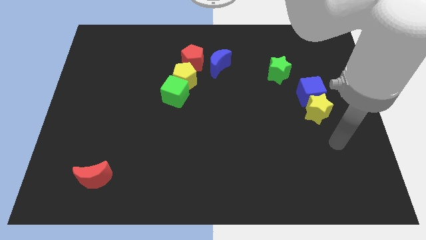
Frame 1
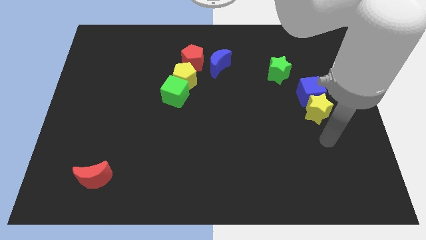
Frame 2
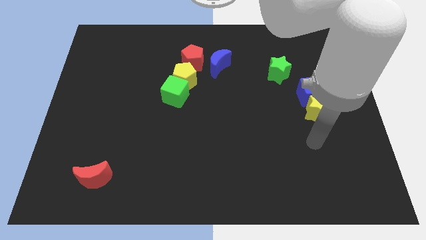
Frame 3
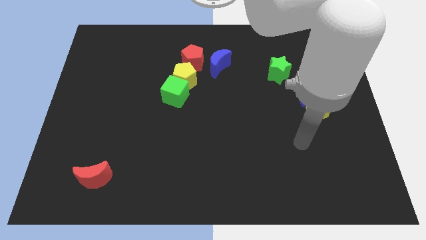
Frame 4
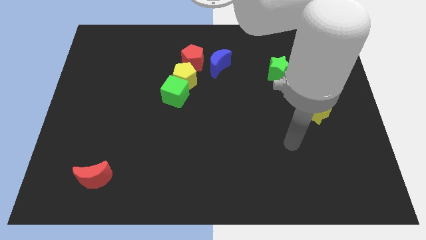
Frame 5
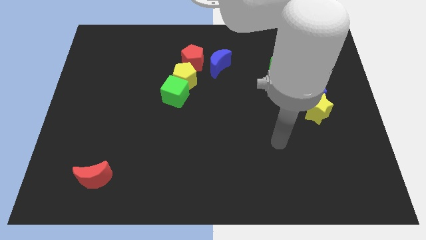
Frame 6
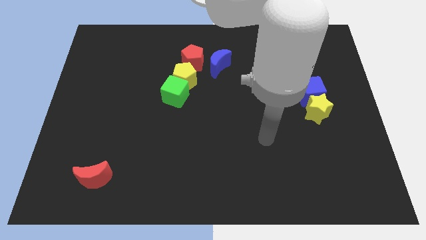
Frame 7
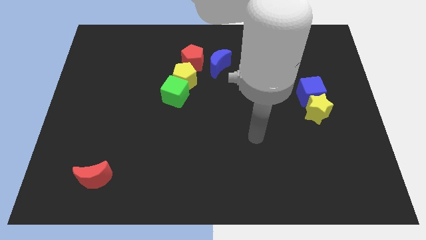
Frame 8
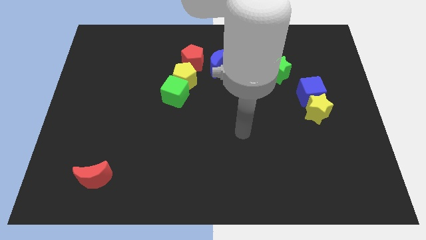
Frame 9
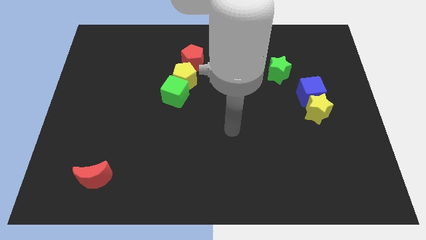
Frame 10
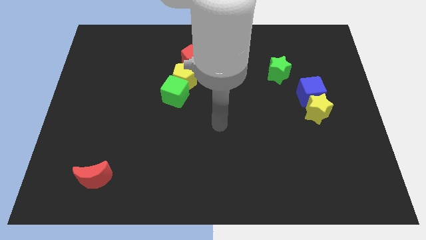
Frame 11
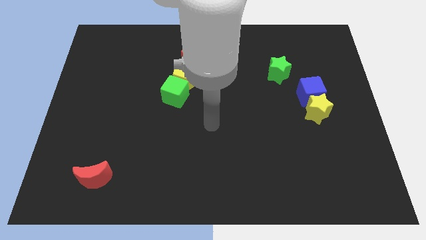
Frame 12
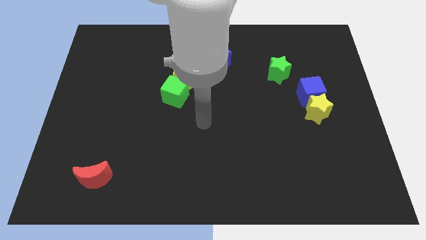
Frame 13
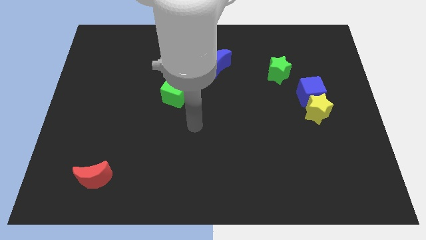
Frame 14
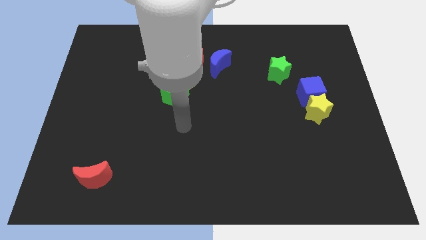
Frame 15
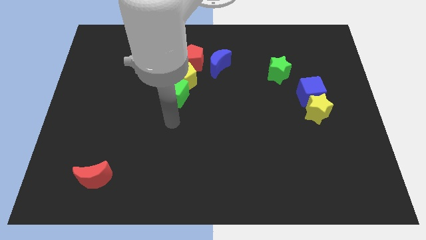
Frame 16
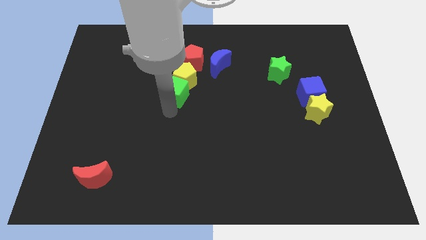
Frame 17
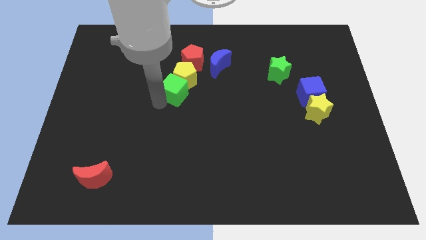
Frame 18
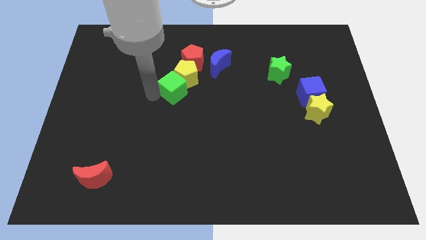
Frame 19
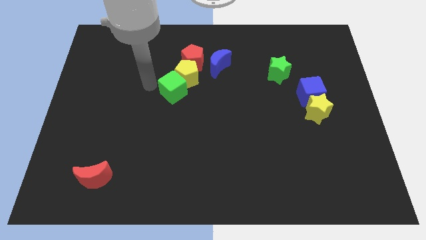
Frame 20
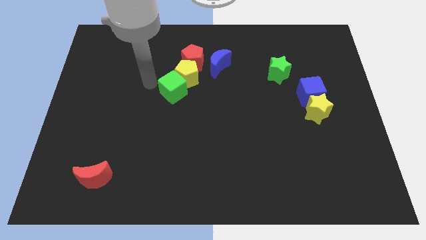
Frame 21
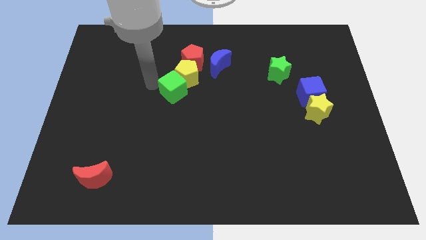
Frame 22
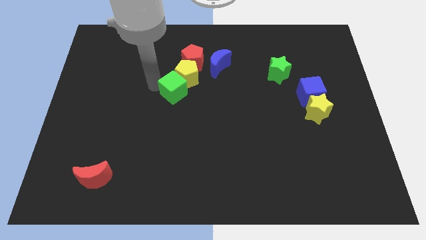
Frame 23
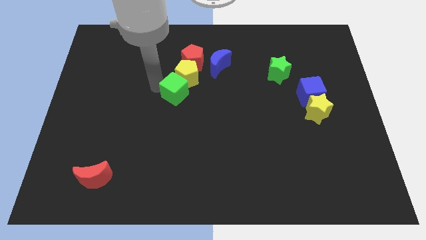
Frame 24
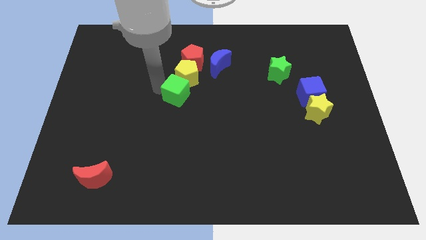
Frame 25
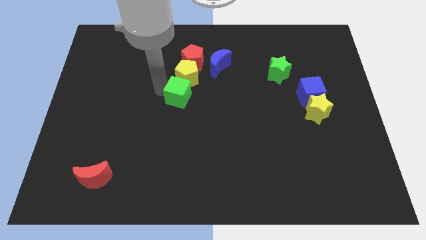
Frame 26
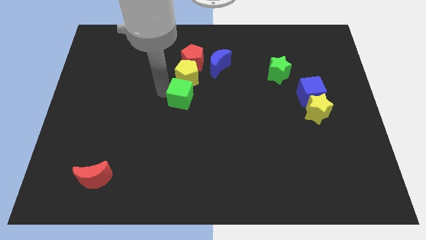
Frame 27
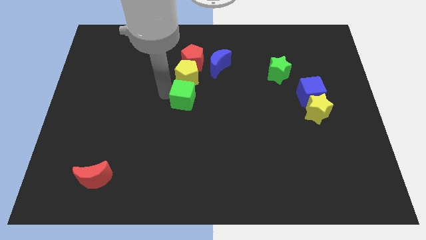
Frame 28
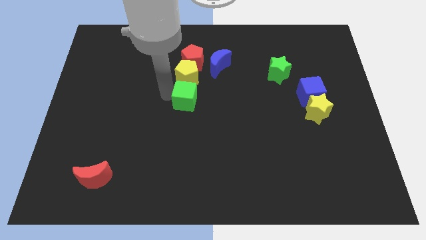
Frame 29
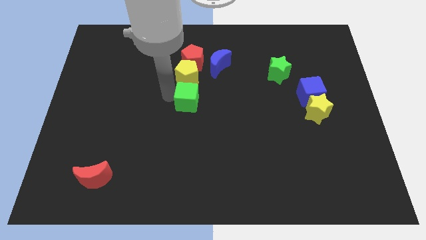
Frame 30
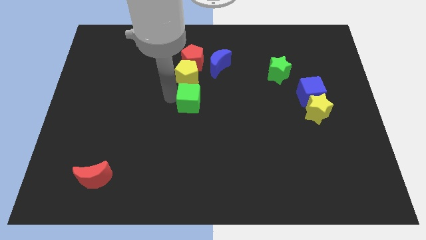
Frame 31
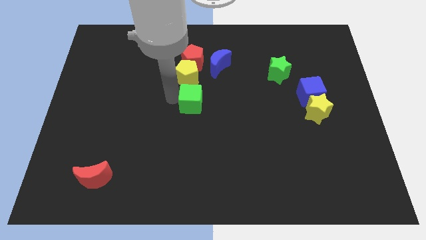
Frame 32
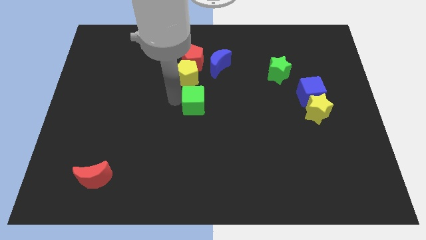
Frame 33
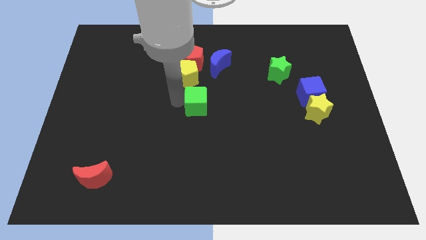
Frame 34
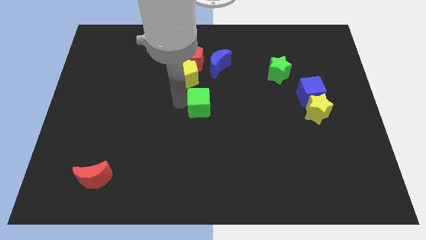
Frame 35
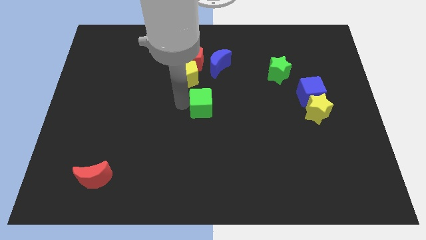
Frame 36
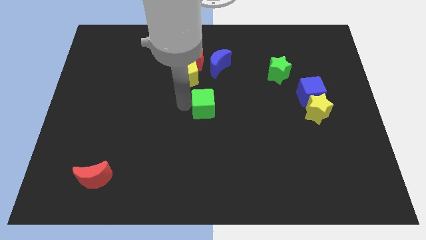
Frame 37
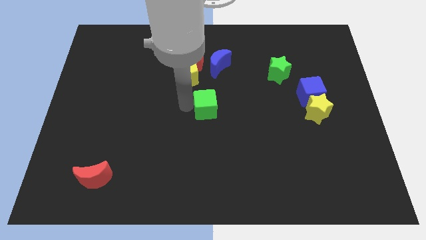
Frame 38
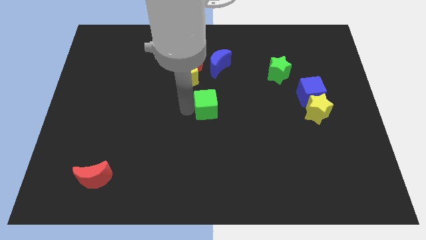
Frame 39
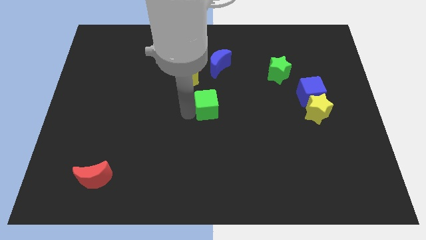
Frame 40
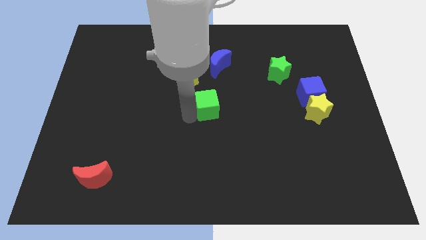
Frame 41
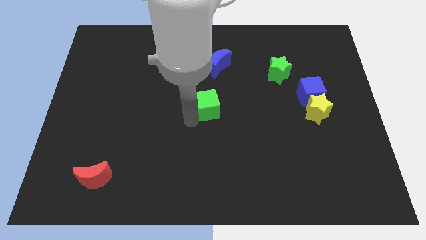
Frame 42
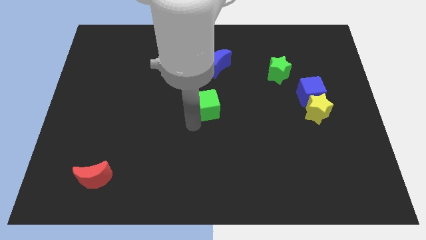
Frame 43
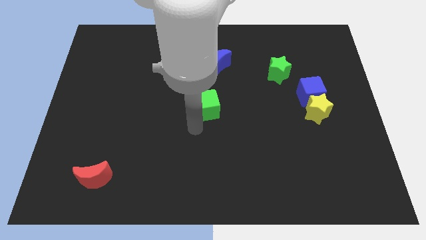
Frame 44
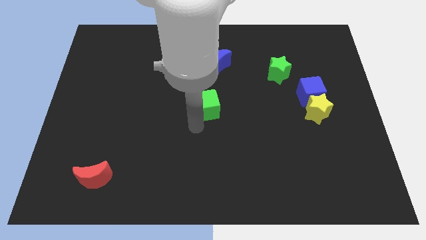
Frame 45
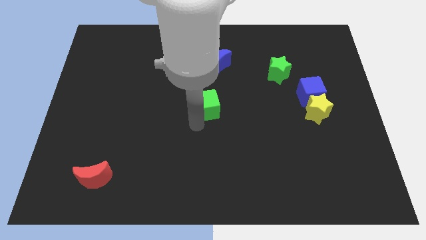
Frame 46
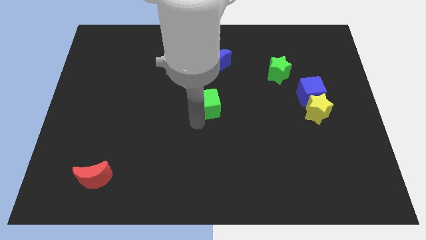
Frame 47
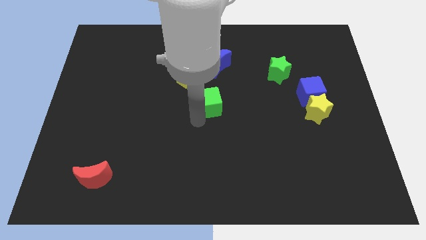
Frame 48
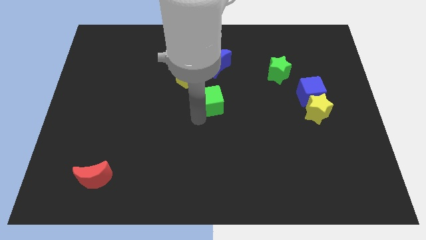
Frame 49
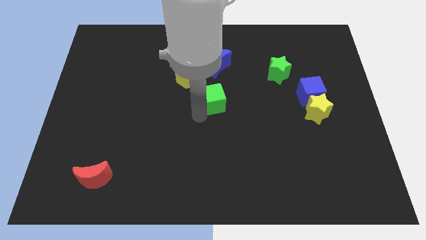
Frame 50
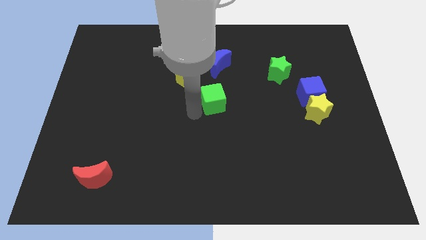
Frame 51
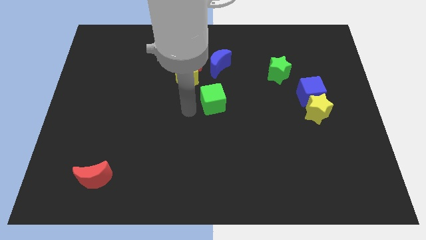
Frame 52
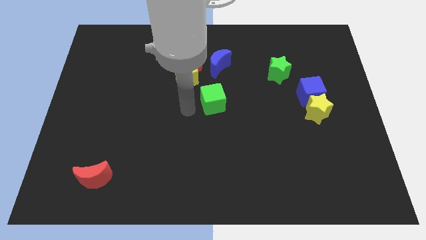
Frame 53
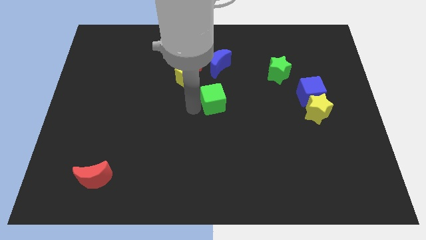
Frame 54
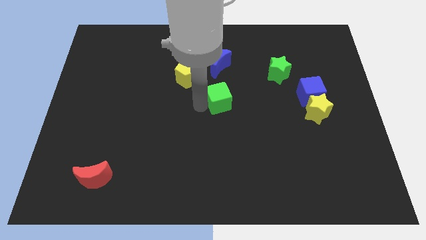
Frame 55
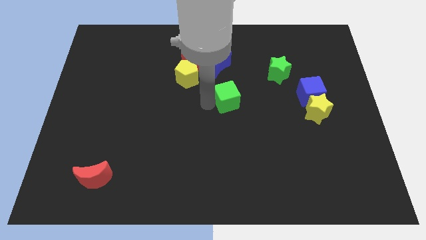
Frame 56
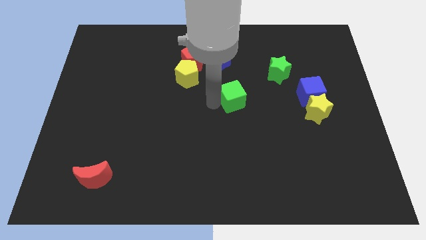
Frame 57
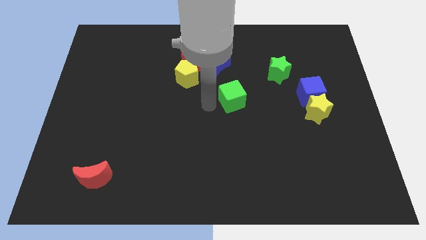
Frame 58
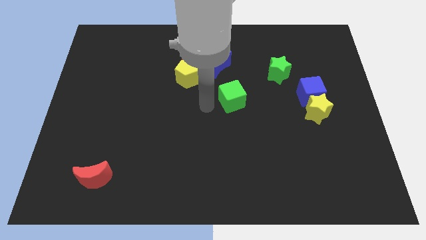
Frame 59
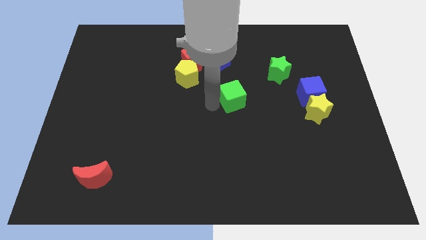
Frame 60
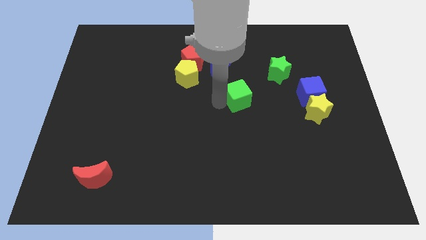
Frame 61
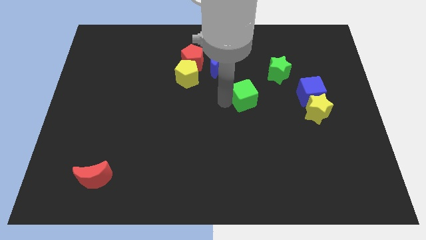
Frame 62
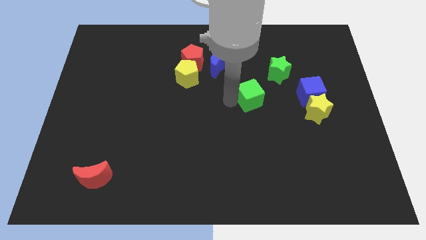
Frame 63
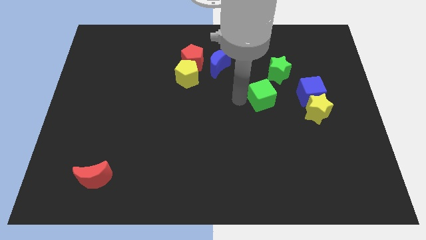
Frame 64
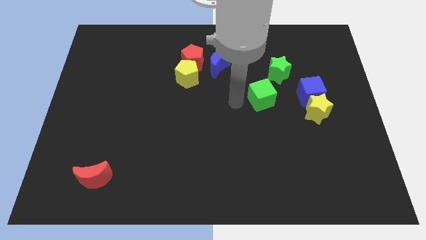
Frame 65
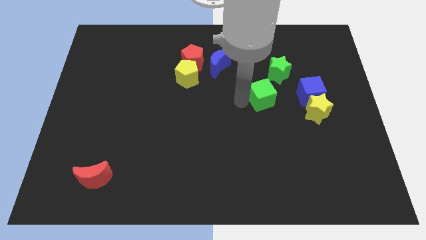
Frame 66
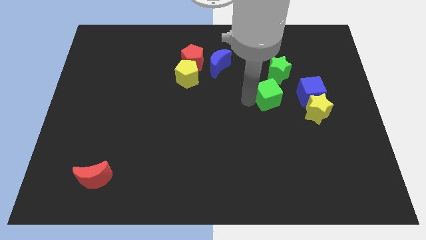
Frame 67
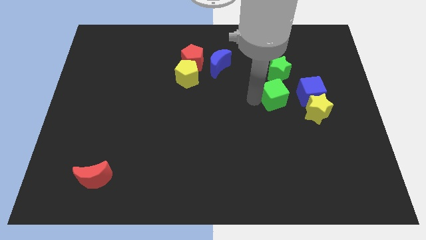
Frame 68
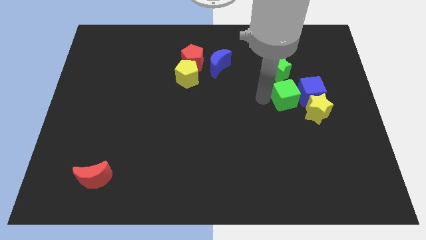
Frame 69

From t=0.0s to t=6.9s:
move the green cube next to the blue cube
